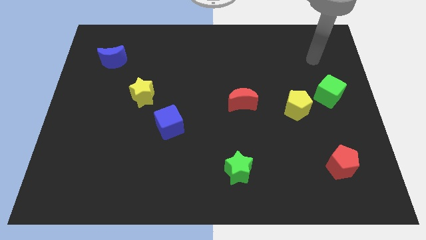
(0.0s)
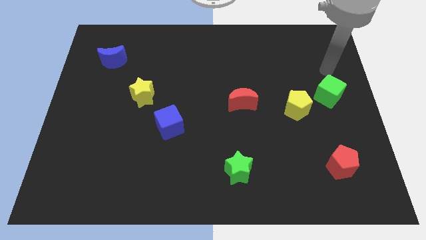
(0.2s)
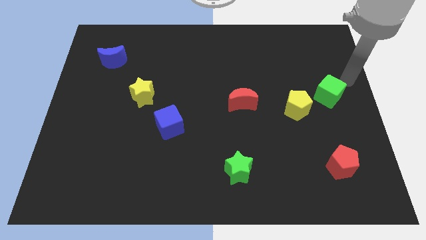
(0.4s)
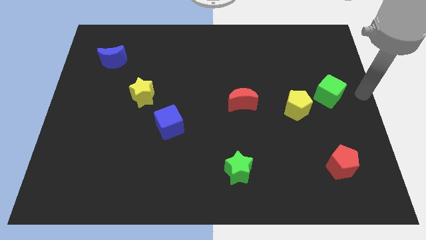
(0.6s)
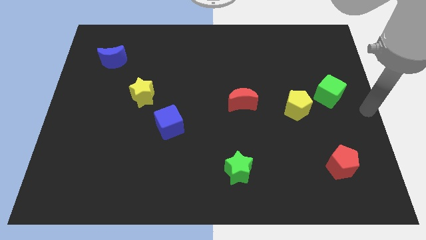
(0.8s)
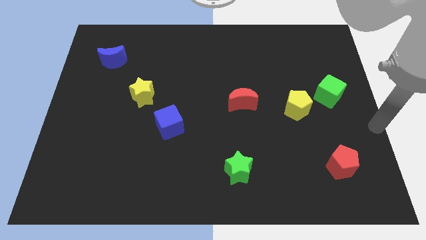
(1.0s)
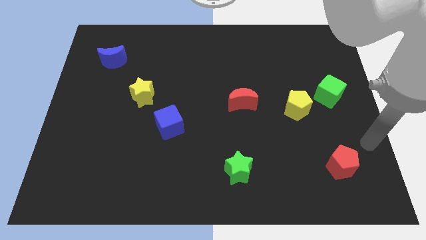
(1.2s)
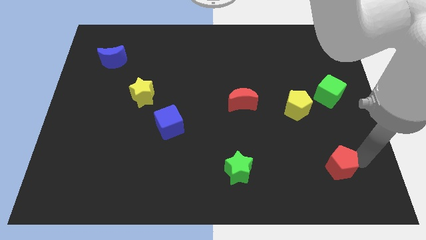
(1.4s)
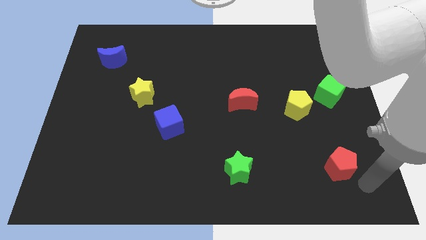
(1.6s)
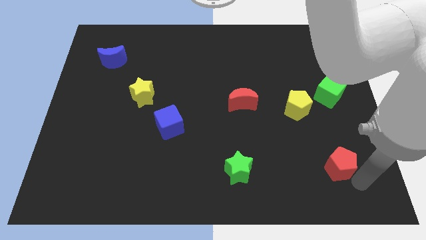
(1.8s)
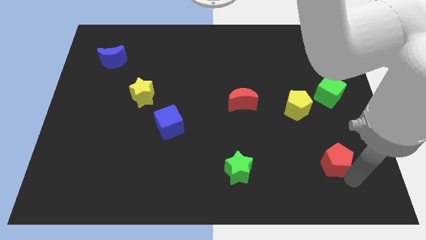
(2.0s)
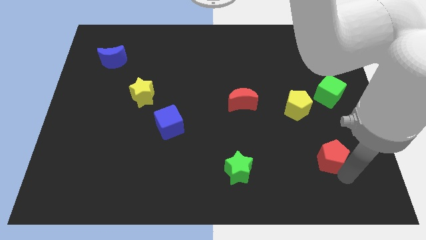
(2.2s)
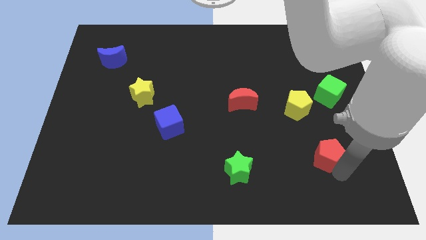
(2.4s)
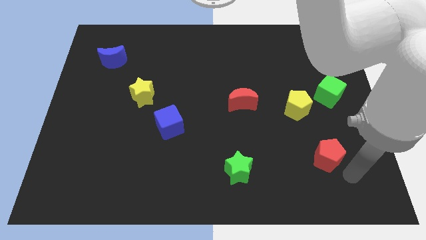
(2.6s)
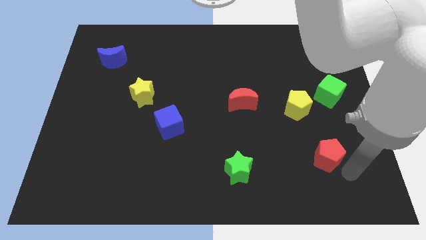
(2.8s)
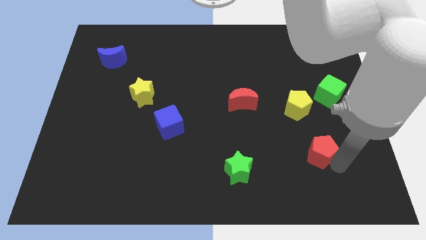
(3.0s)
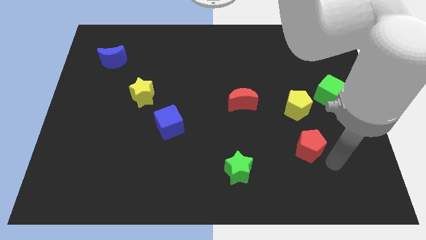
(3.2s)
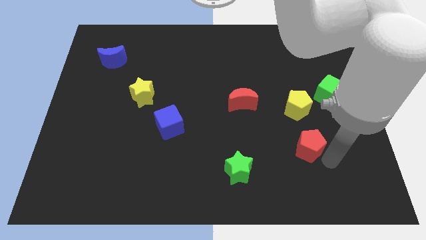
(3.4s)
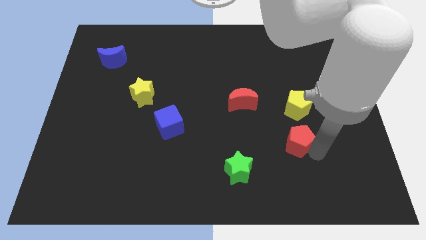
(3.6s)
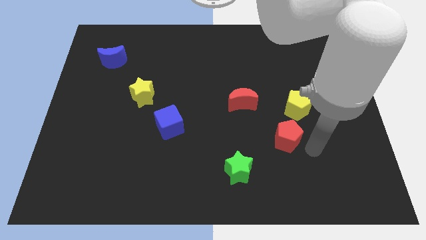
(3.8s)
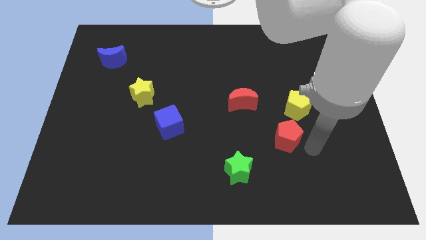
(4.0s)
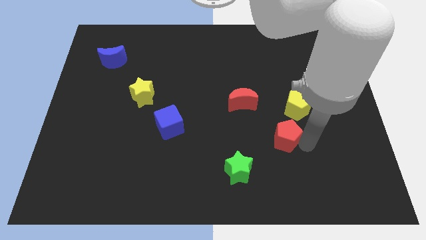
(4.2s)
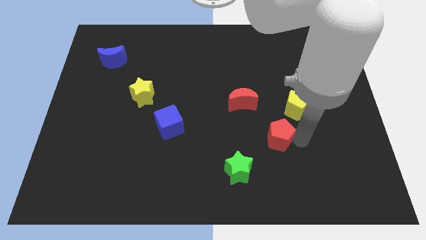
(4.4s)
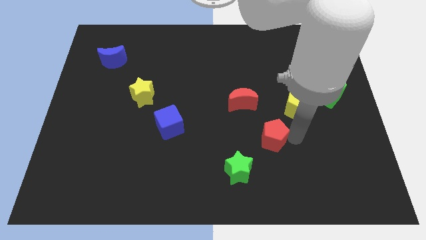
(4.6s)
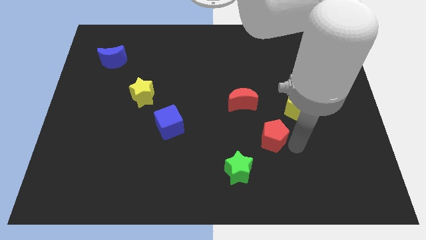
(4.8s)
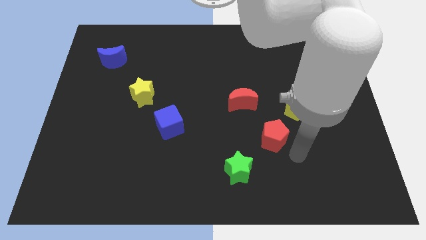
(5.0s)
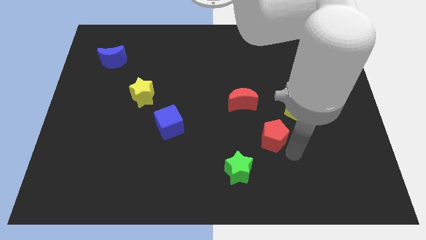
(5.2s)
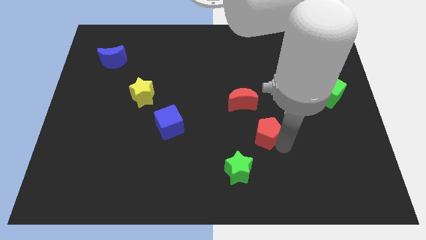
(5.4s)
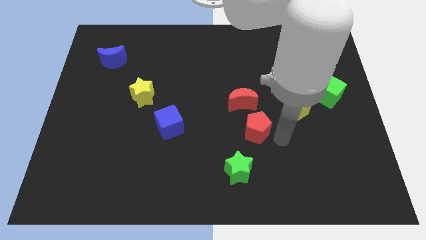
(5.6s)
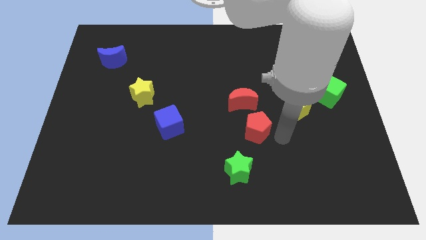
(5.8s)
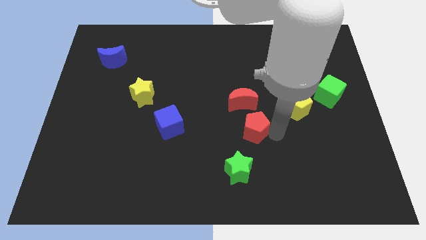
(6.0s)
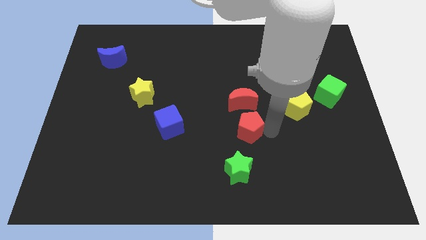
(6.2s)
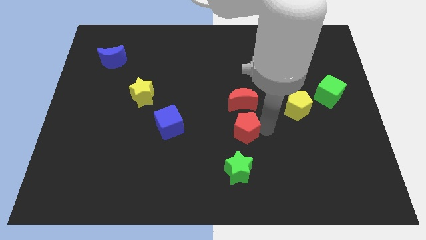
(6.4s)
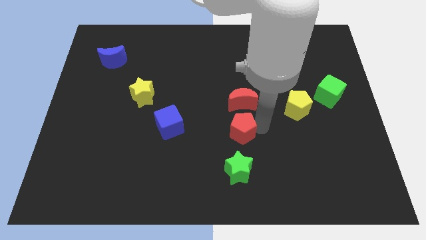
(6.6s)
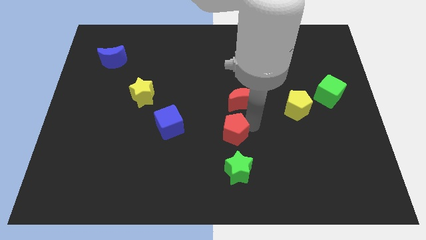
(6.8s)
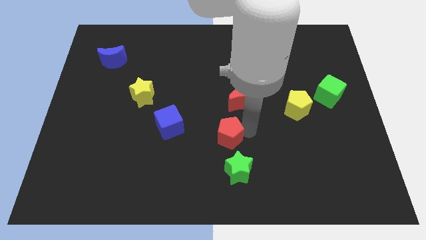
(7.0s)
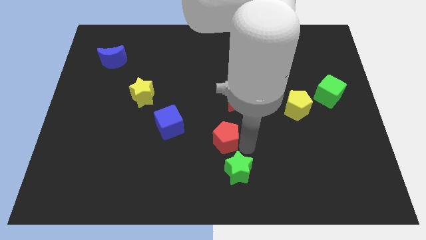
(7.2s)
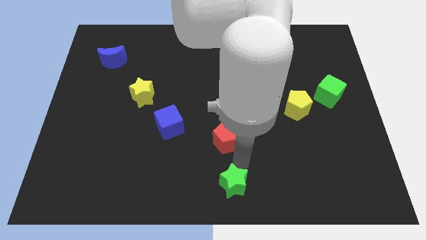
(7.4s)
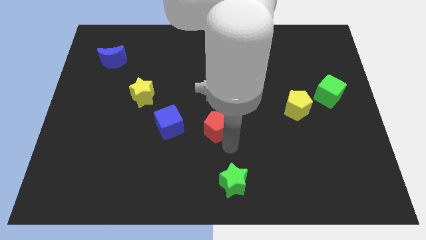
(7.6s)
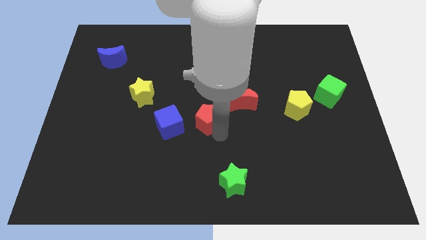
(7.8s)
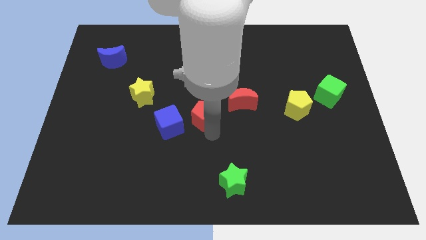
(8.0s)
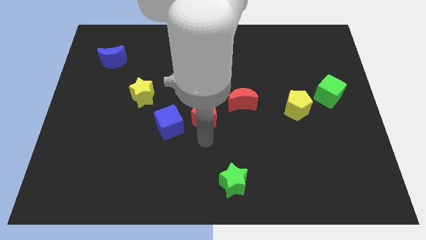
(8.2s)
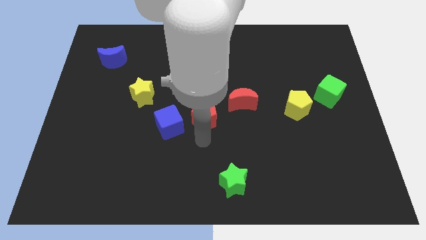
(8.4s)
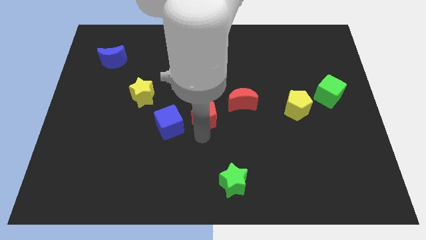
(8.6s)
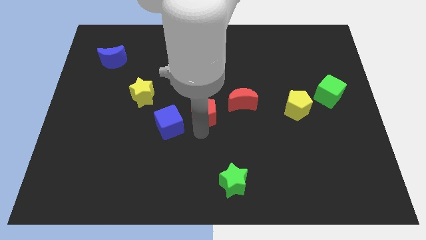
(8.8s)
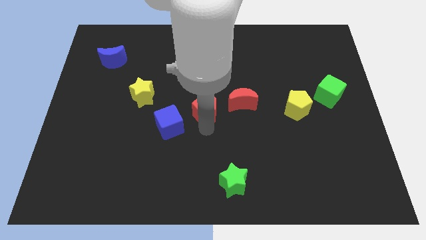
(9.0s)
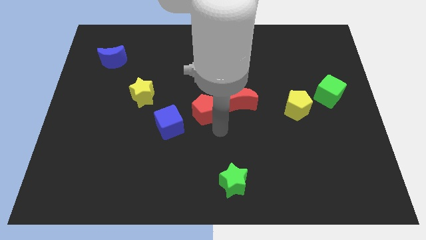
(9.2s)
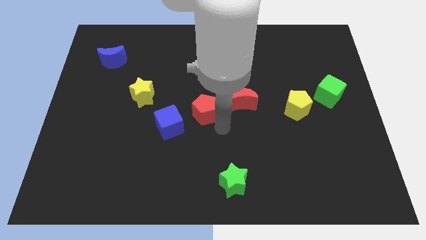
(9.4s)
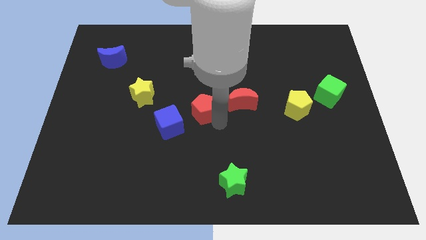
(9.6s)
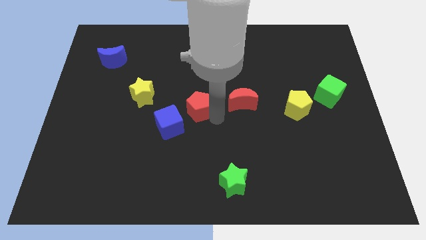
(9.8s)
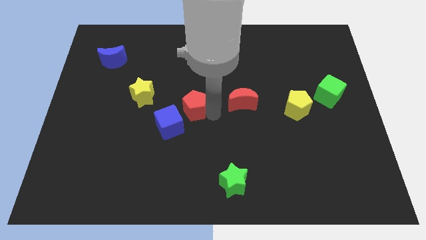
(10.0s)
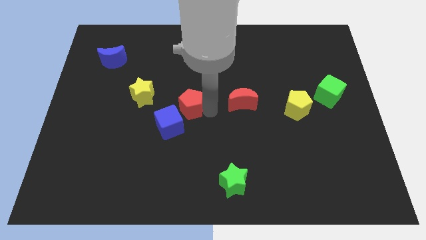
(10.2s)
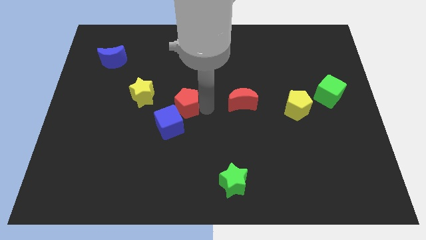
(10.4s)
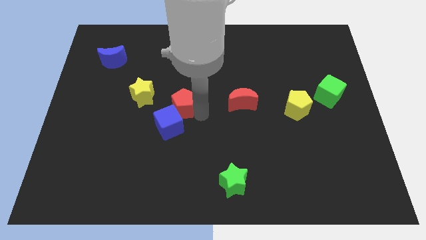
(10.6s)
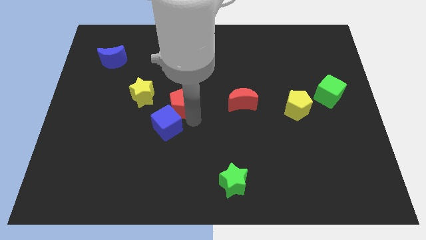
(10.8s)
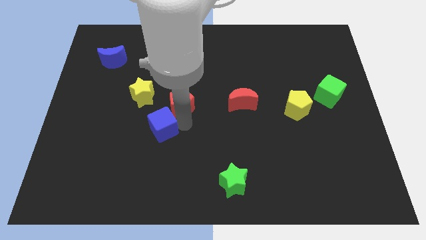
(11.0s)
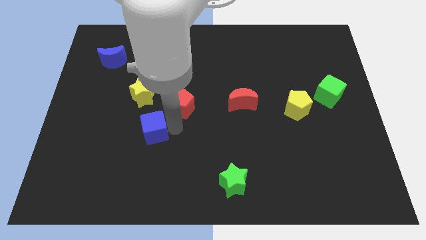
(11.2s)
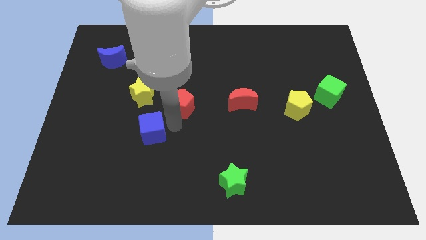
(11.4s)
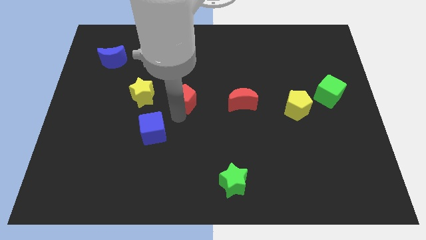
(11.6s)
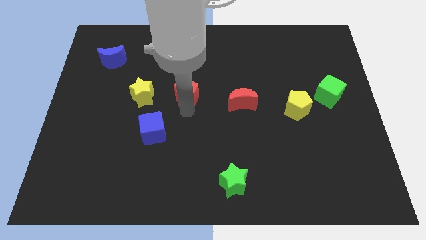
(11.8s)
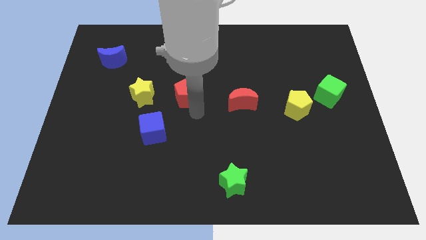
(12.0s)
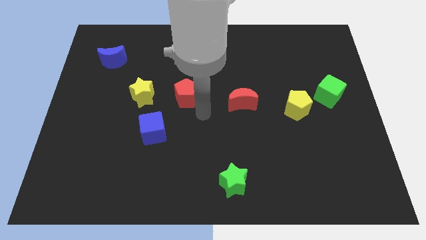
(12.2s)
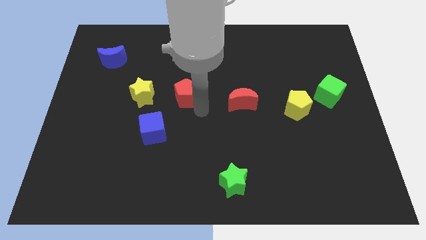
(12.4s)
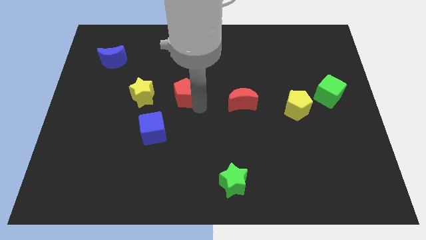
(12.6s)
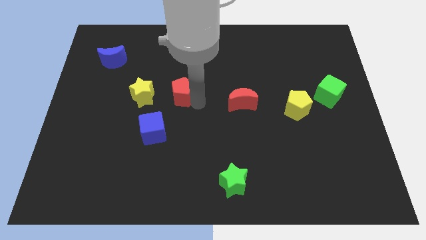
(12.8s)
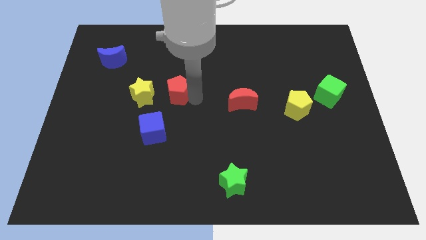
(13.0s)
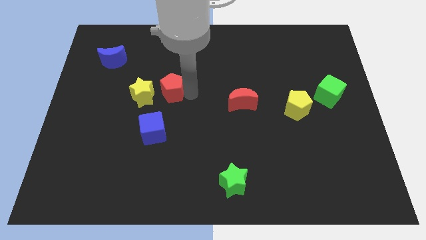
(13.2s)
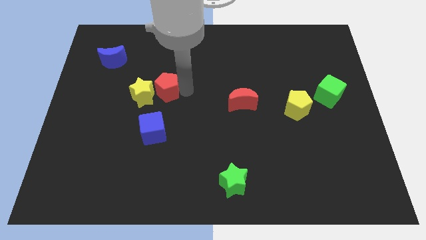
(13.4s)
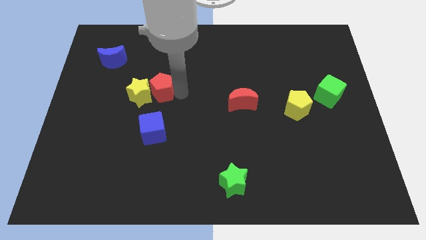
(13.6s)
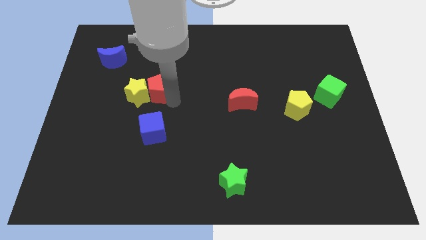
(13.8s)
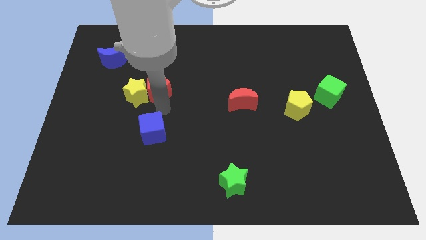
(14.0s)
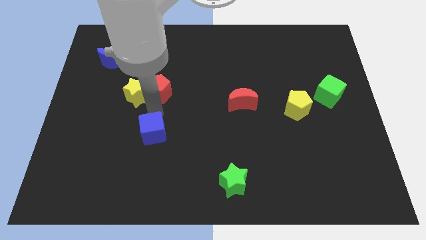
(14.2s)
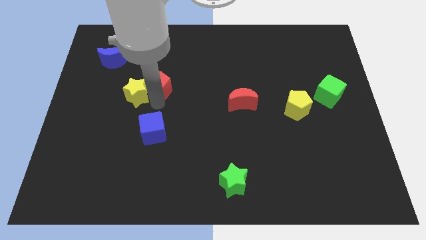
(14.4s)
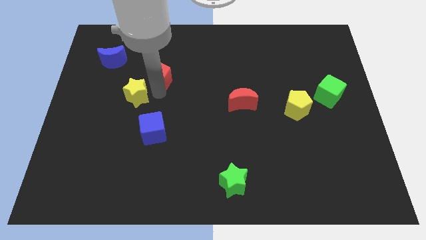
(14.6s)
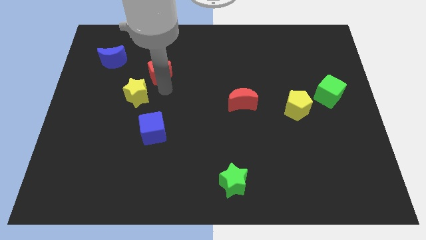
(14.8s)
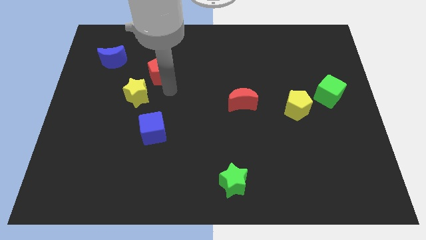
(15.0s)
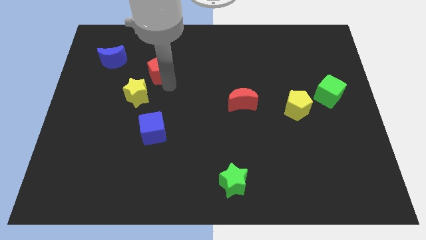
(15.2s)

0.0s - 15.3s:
move the red pentagon to the right of the blue moon

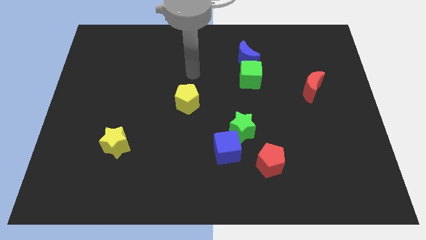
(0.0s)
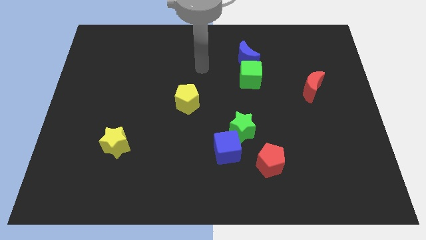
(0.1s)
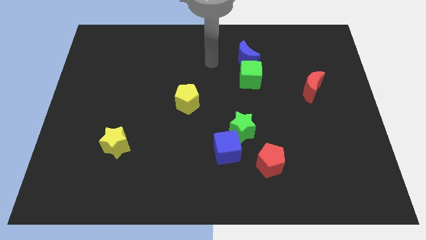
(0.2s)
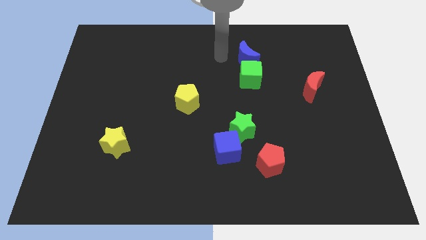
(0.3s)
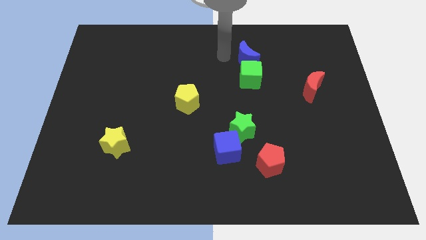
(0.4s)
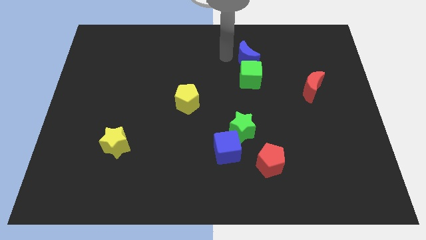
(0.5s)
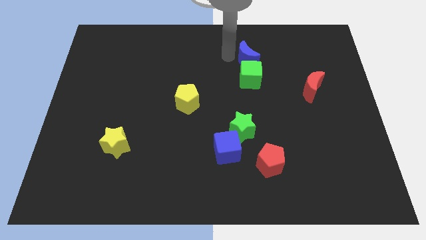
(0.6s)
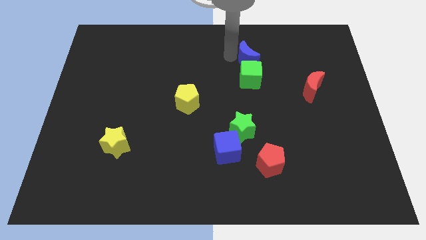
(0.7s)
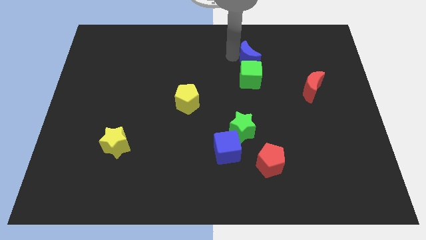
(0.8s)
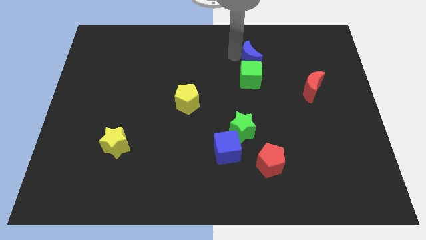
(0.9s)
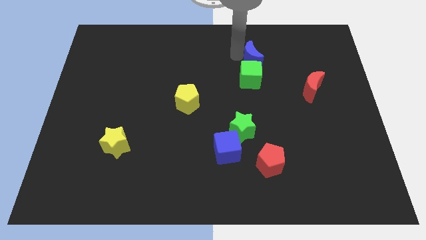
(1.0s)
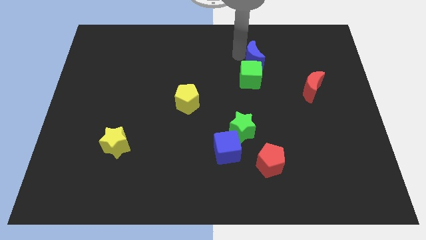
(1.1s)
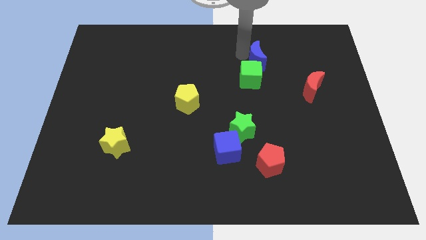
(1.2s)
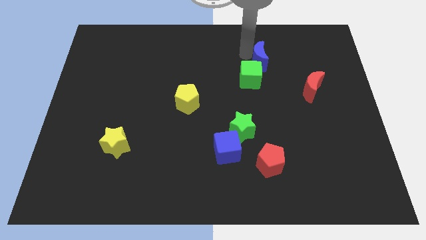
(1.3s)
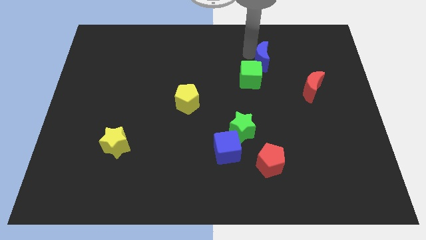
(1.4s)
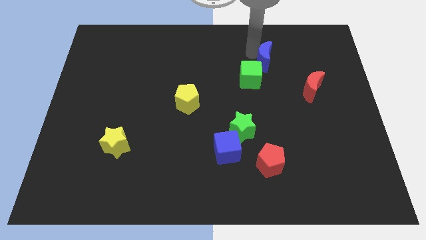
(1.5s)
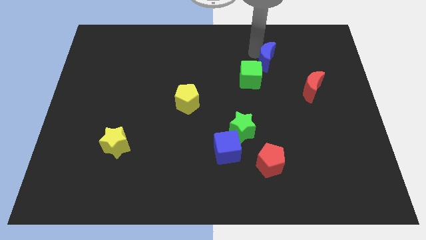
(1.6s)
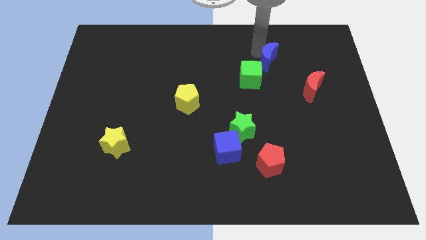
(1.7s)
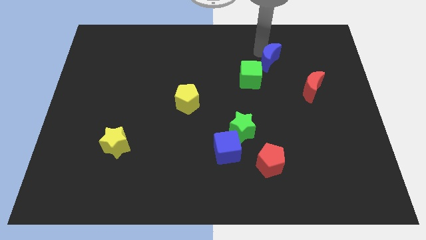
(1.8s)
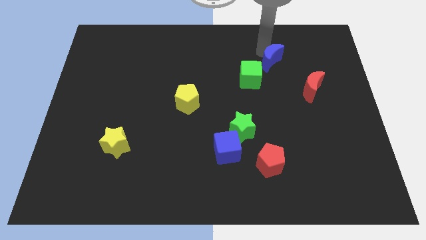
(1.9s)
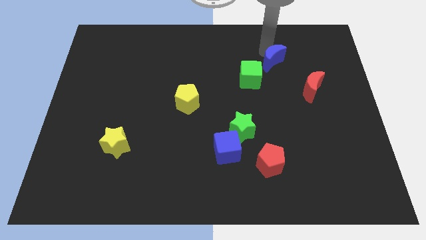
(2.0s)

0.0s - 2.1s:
push the blue moon to the top left side of the red moon
